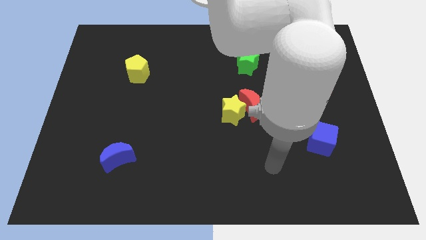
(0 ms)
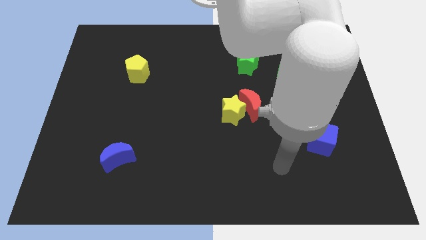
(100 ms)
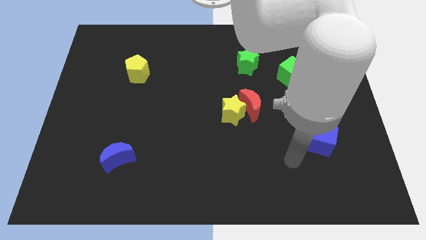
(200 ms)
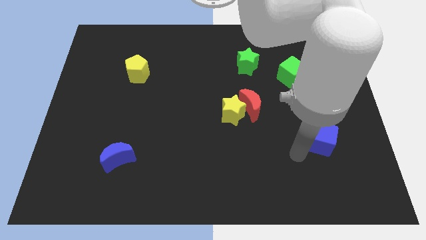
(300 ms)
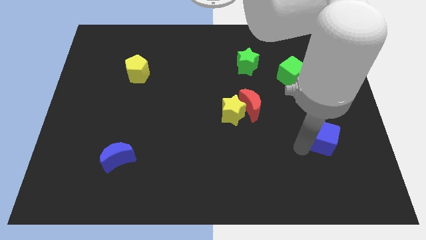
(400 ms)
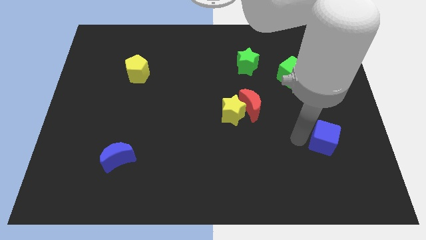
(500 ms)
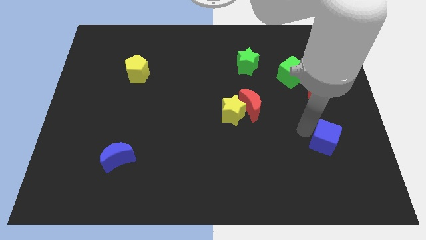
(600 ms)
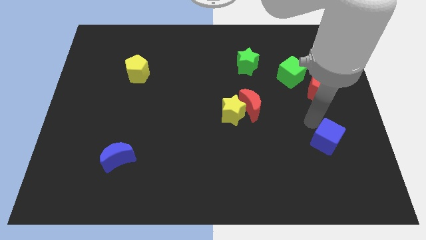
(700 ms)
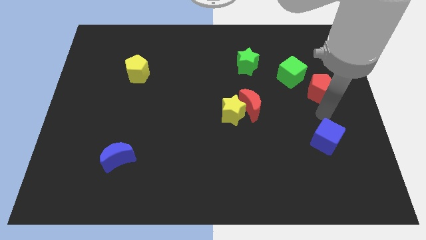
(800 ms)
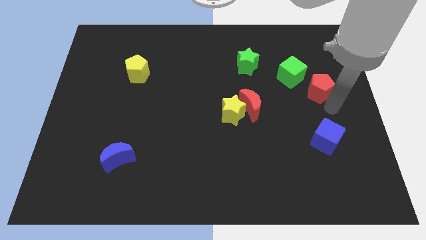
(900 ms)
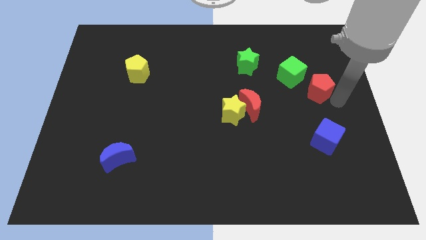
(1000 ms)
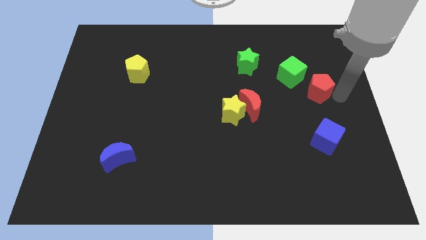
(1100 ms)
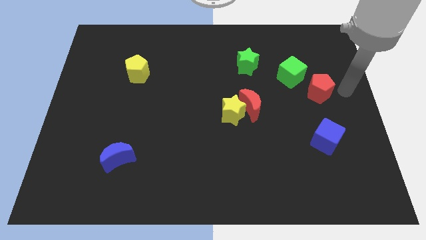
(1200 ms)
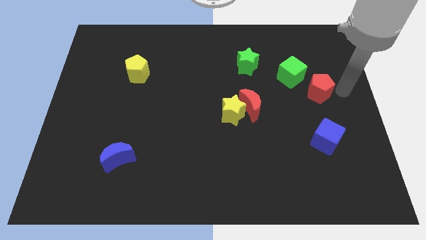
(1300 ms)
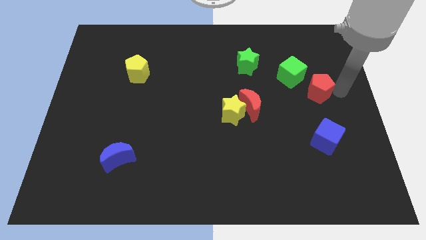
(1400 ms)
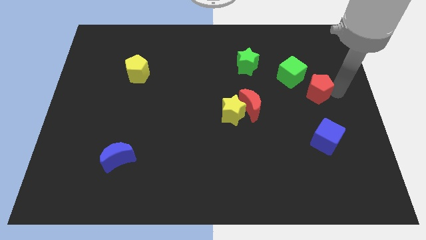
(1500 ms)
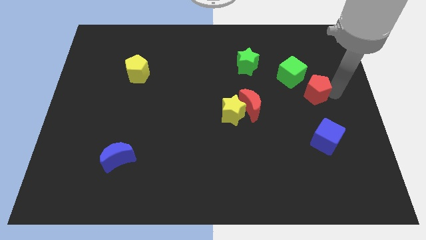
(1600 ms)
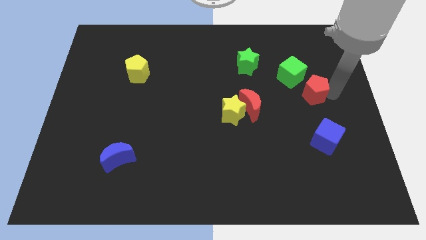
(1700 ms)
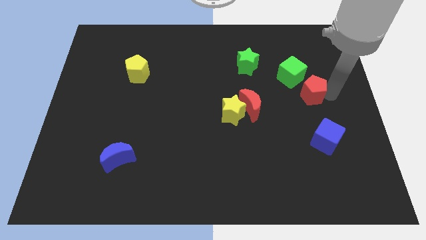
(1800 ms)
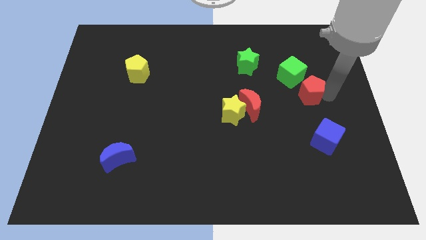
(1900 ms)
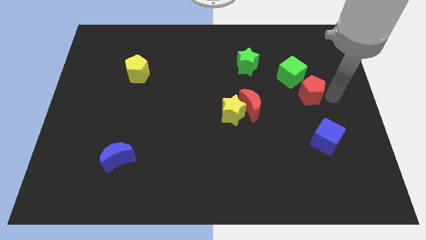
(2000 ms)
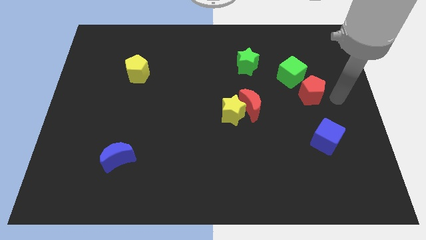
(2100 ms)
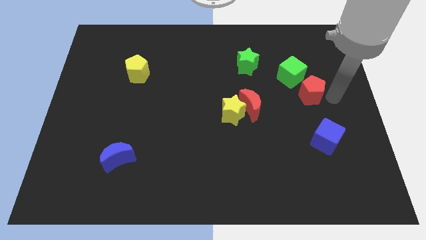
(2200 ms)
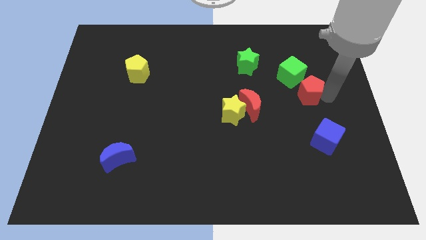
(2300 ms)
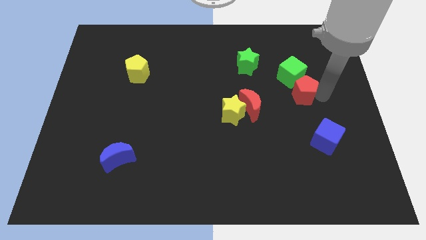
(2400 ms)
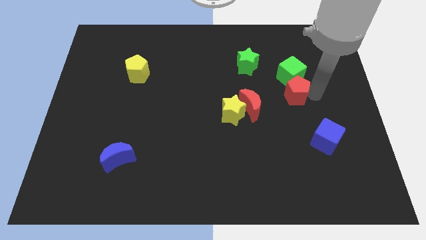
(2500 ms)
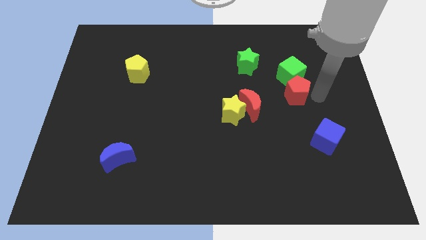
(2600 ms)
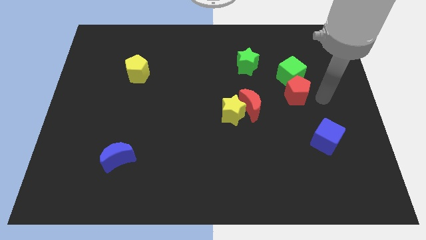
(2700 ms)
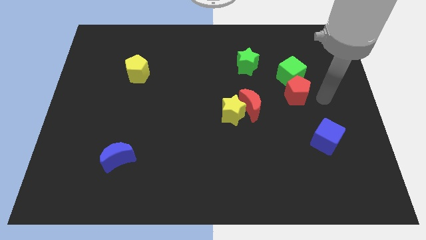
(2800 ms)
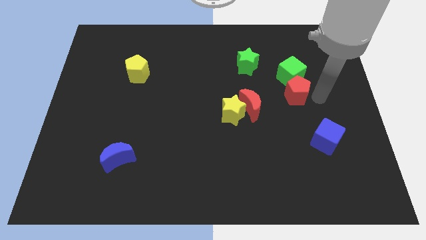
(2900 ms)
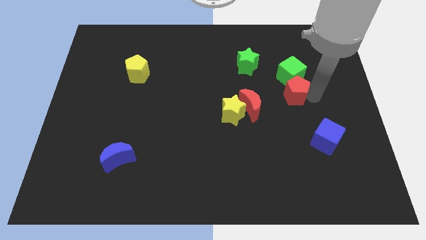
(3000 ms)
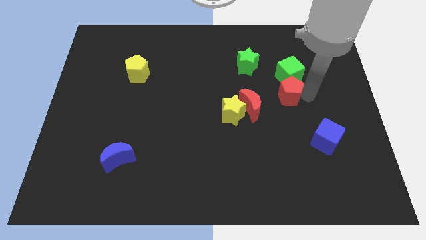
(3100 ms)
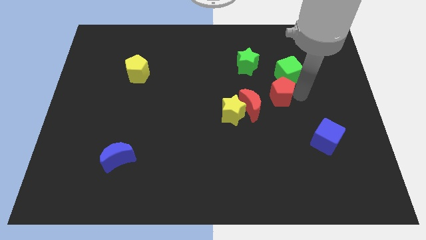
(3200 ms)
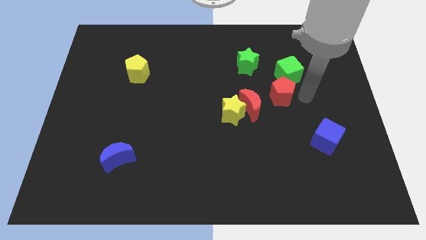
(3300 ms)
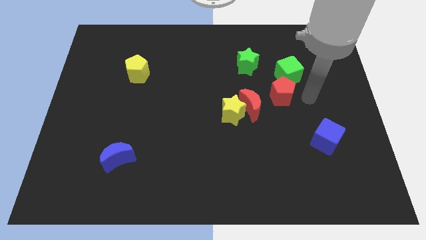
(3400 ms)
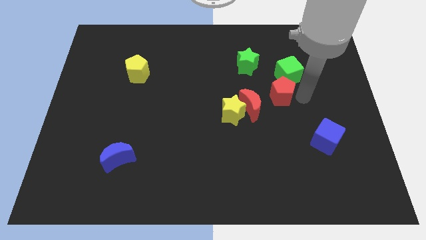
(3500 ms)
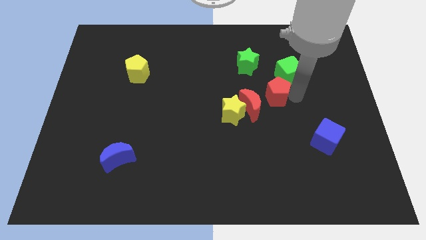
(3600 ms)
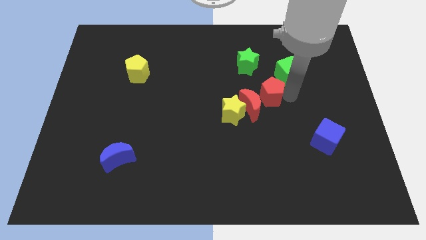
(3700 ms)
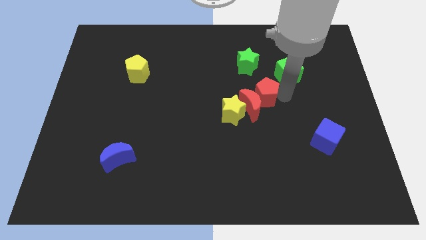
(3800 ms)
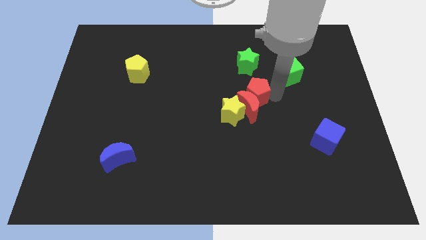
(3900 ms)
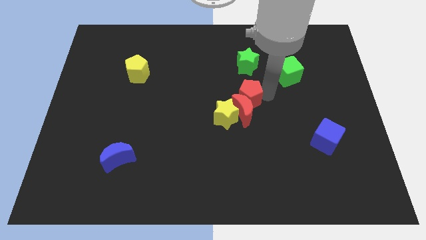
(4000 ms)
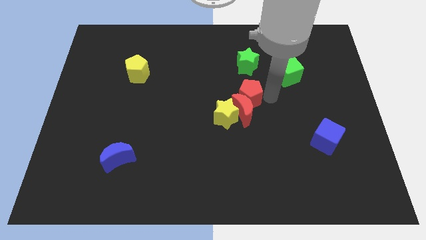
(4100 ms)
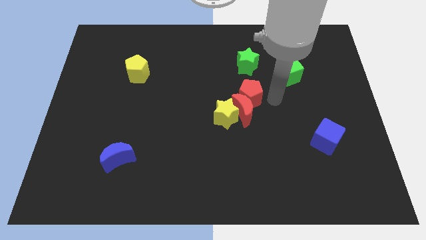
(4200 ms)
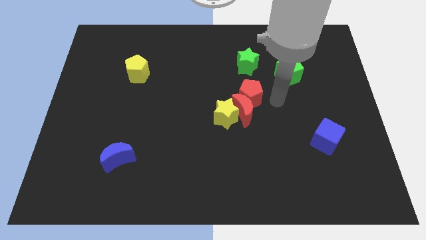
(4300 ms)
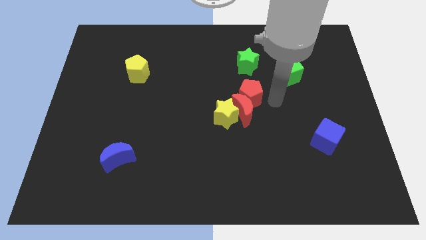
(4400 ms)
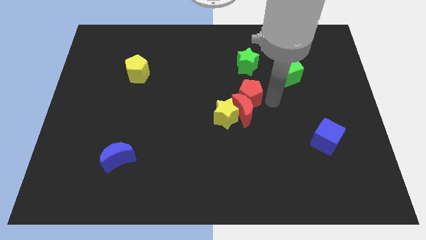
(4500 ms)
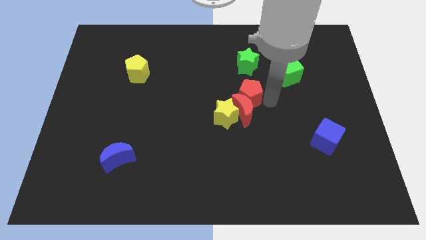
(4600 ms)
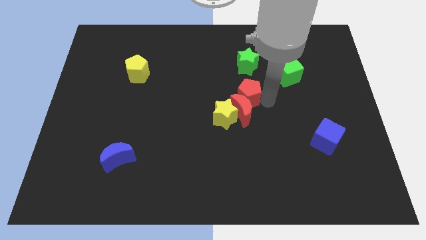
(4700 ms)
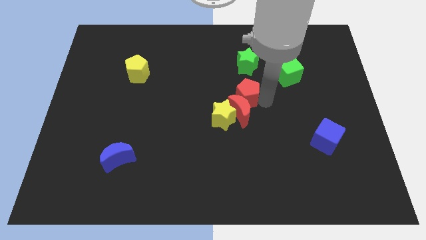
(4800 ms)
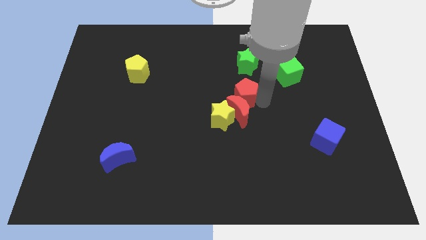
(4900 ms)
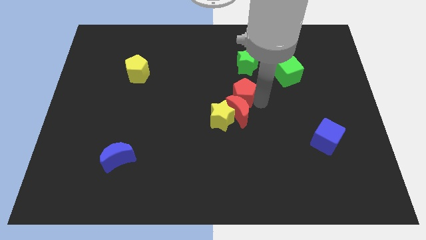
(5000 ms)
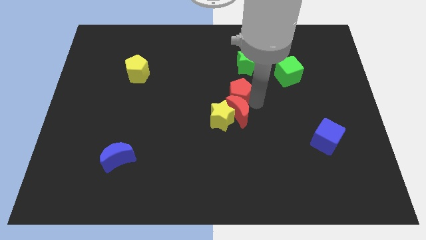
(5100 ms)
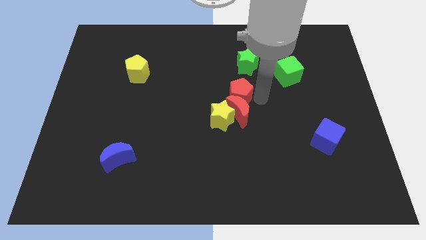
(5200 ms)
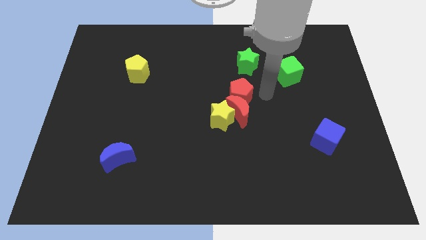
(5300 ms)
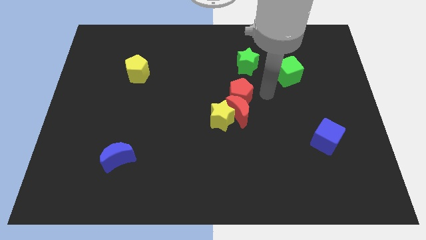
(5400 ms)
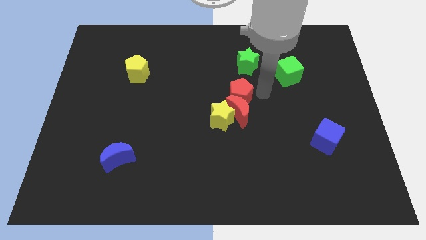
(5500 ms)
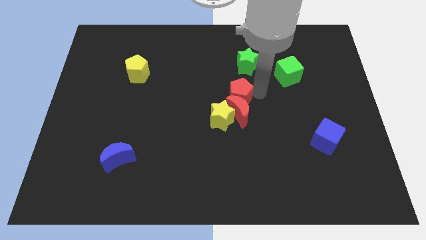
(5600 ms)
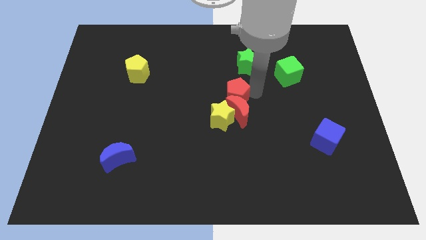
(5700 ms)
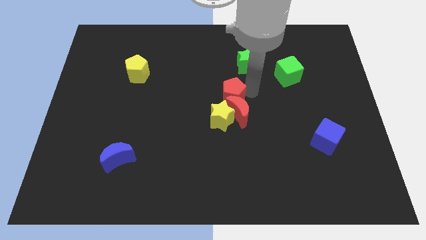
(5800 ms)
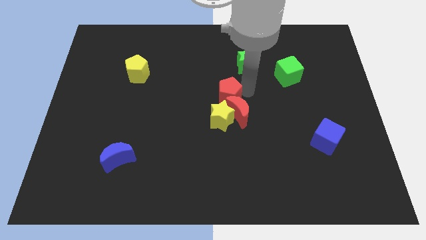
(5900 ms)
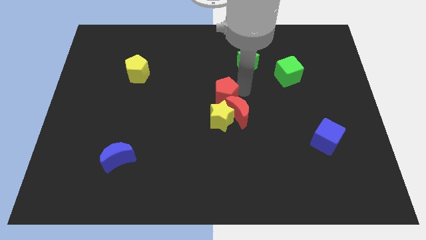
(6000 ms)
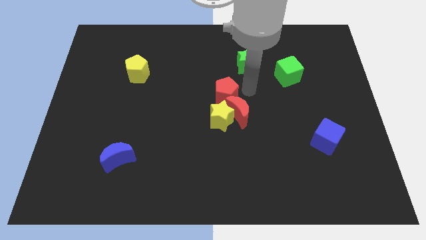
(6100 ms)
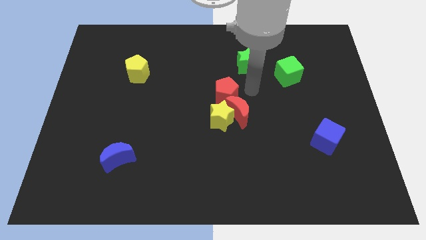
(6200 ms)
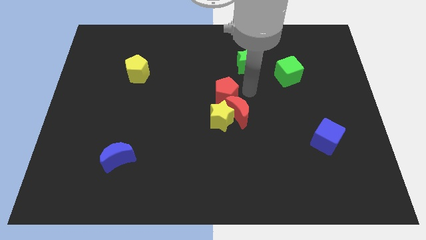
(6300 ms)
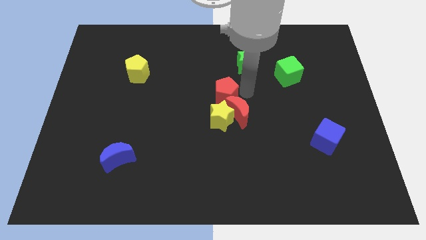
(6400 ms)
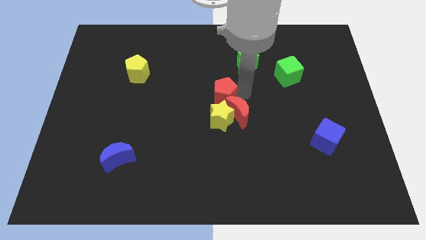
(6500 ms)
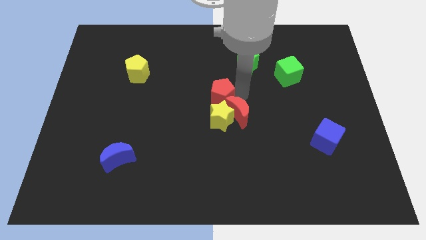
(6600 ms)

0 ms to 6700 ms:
push the red pentagon diagonally up and to the left of the yellow star

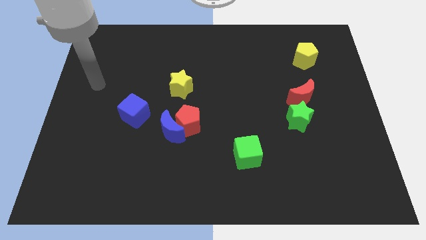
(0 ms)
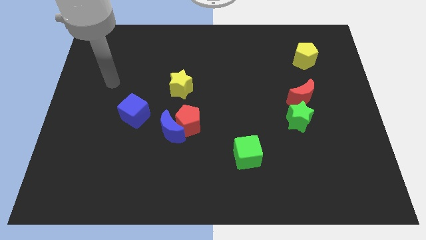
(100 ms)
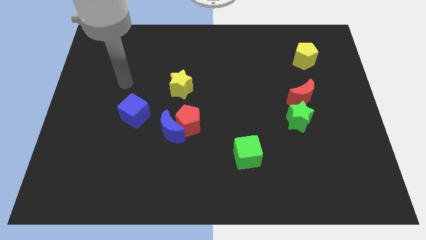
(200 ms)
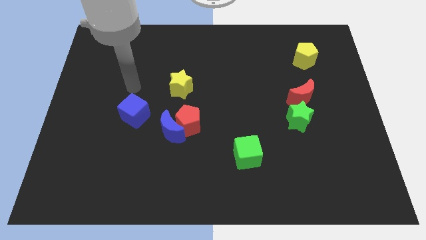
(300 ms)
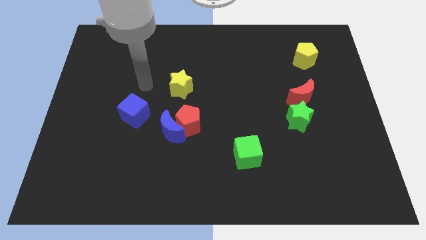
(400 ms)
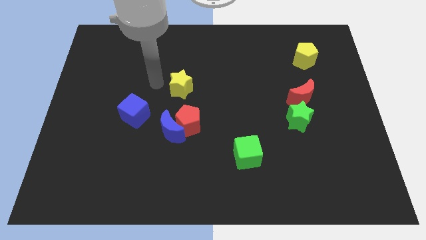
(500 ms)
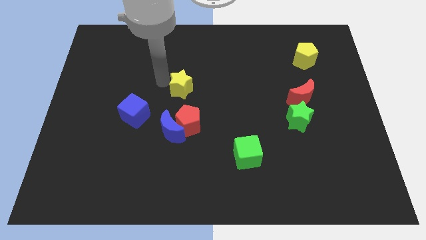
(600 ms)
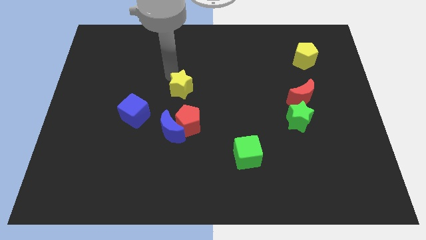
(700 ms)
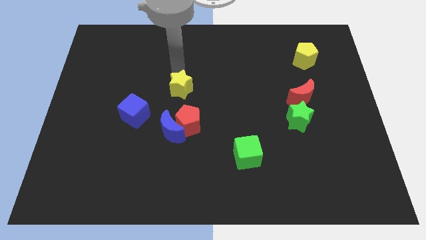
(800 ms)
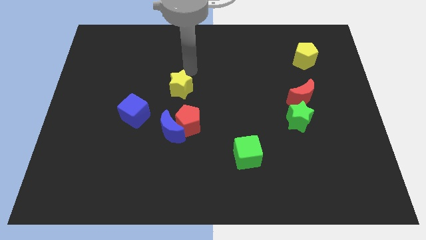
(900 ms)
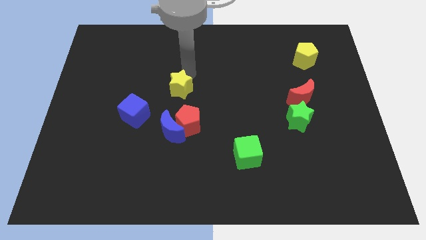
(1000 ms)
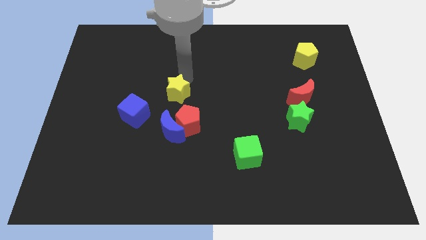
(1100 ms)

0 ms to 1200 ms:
put the yellow star to the top left side of the red pentagon
